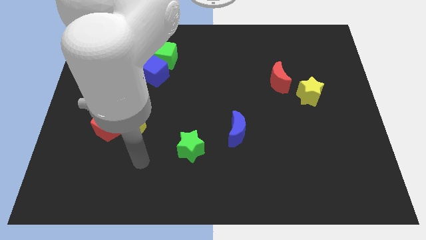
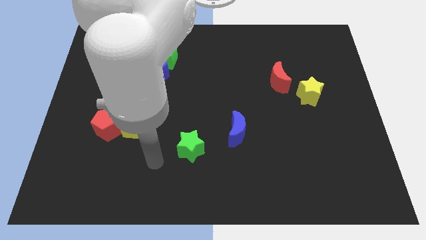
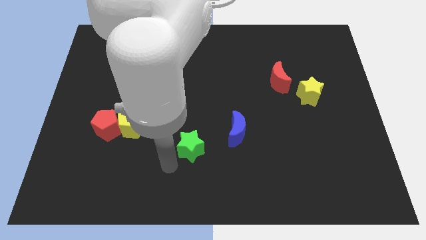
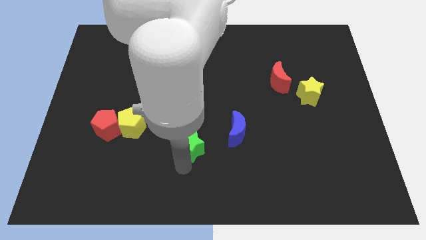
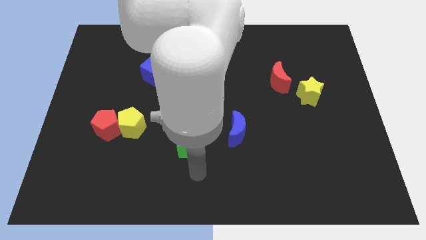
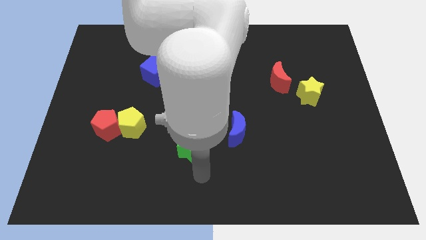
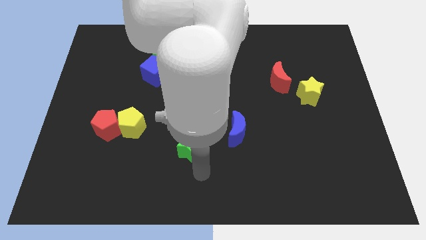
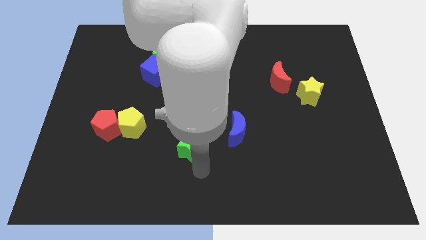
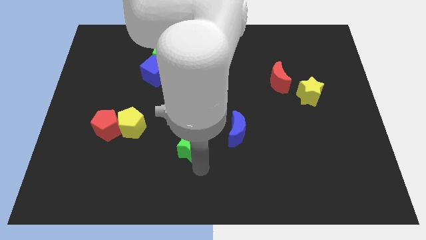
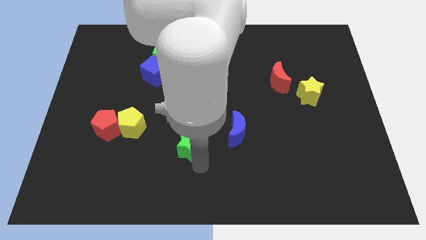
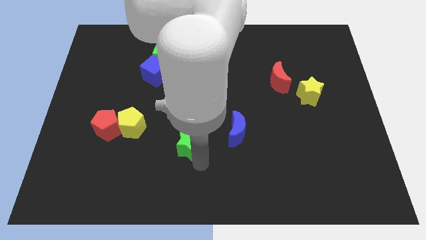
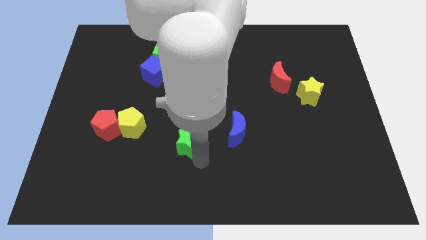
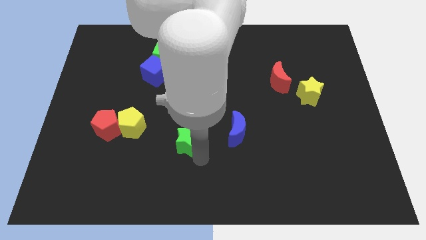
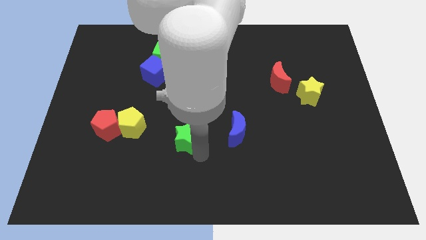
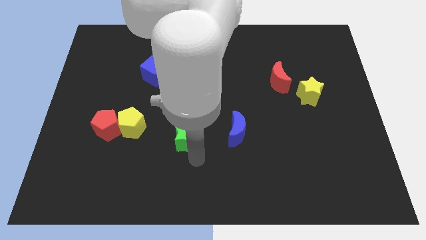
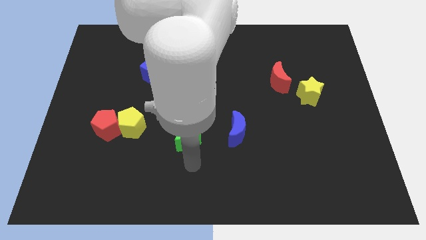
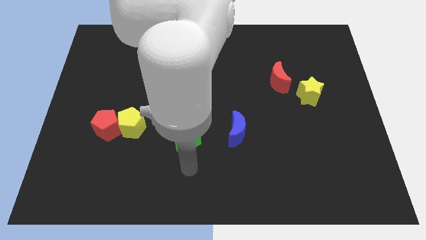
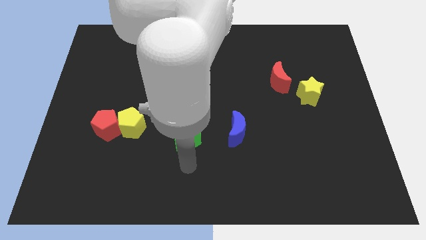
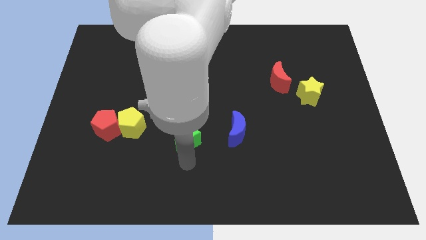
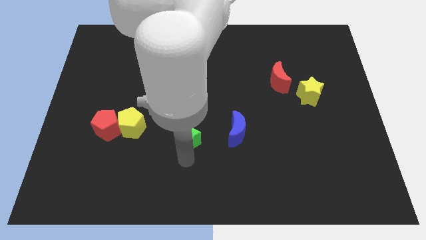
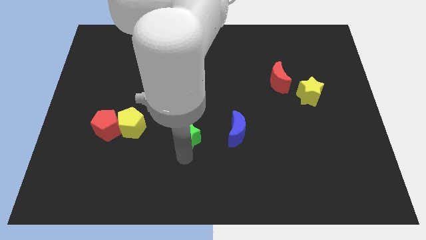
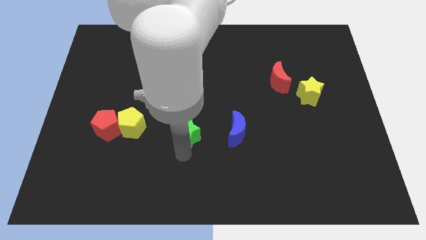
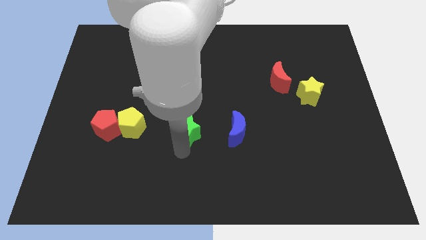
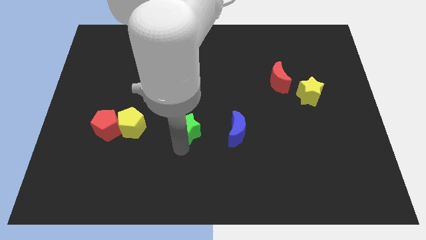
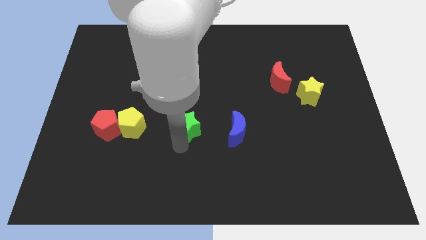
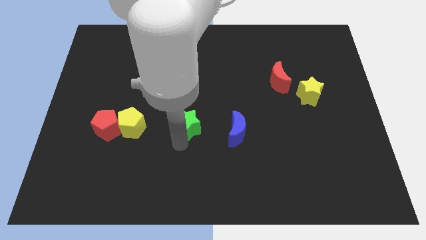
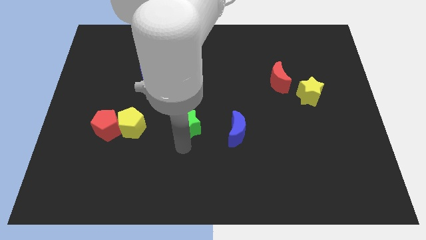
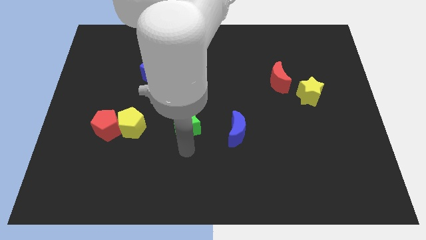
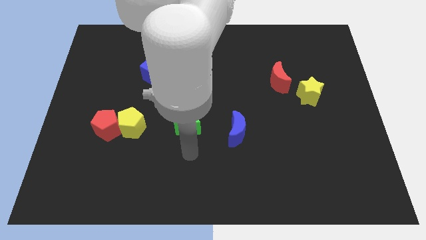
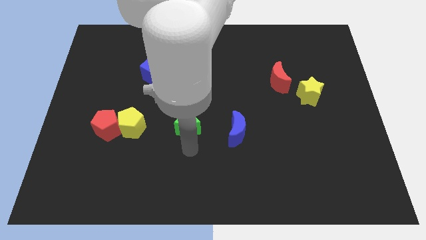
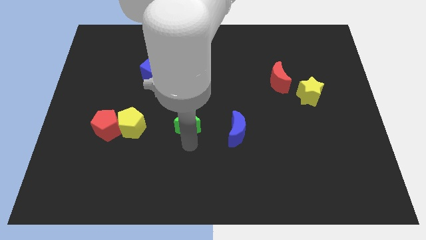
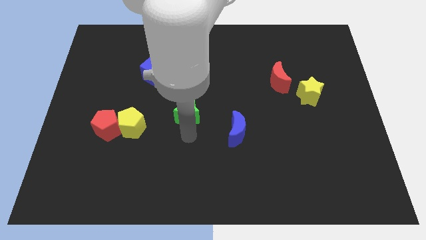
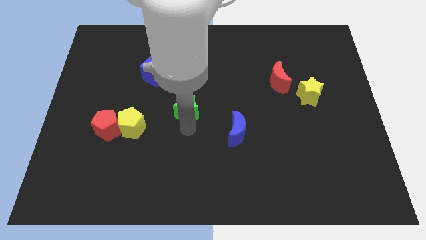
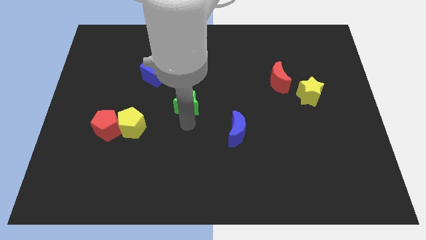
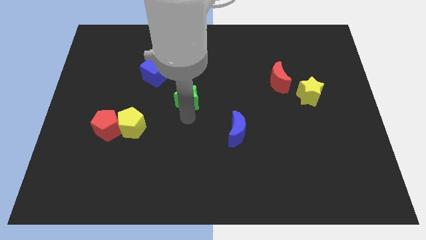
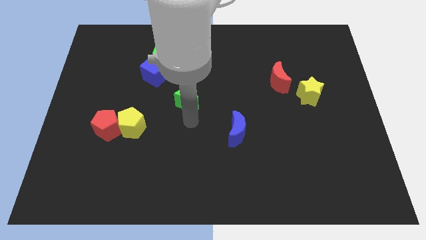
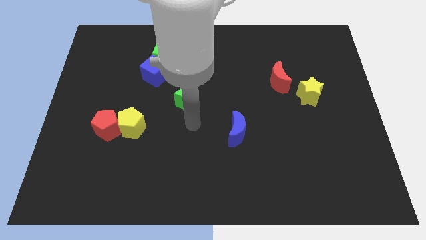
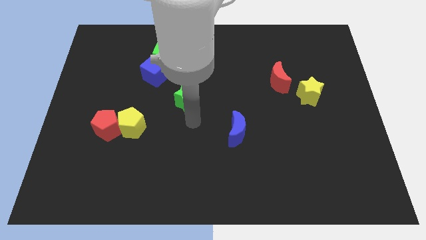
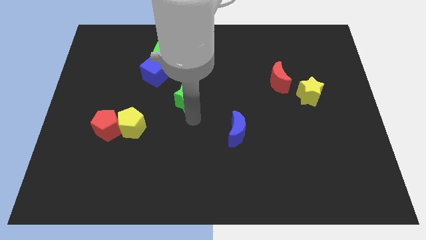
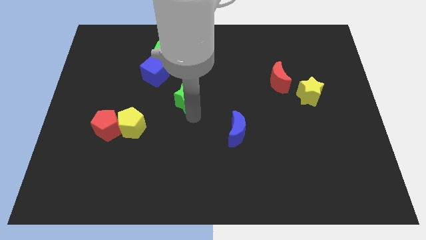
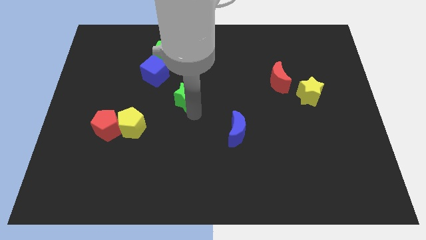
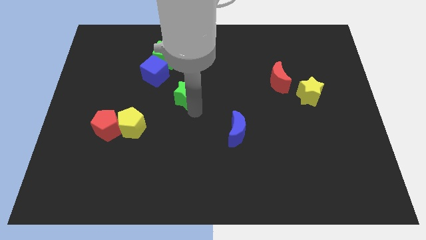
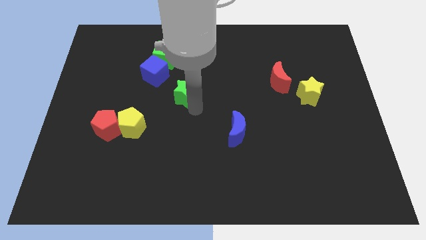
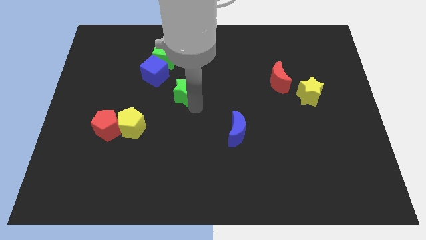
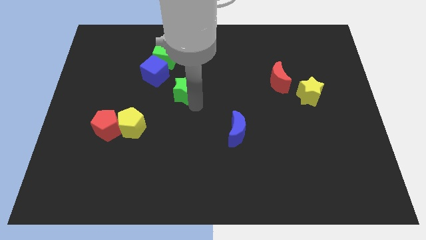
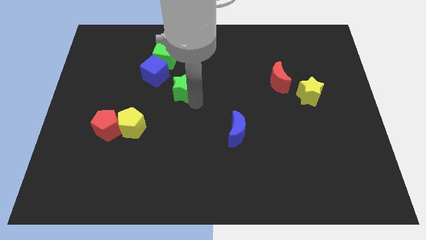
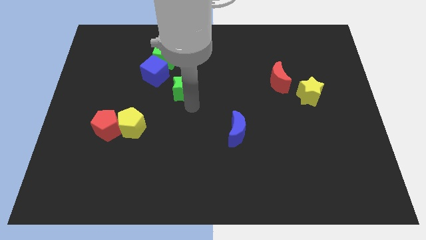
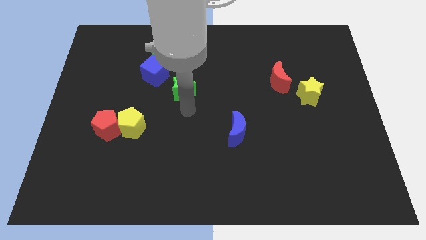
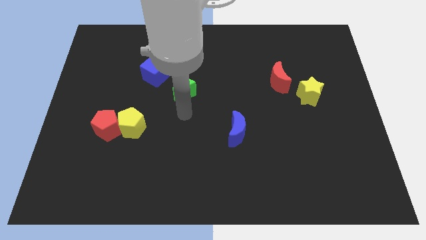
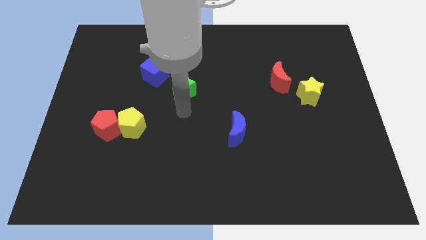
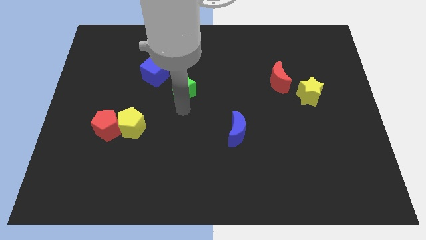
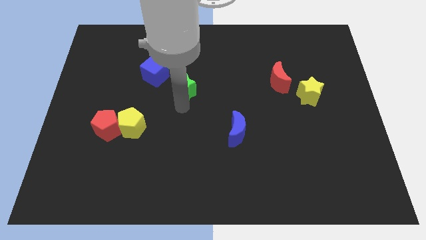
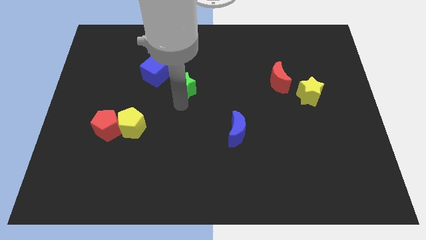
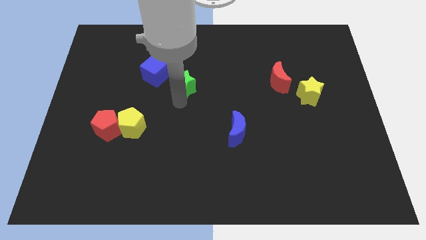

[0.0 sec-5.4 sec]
push the green star to the bottom right side of the green cube

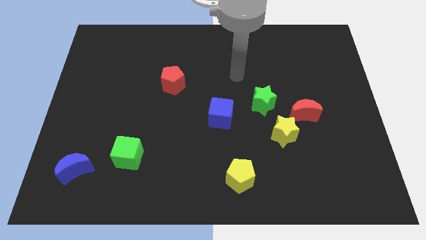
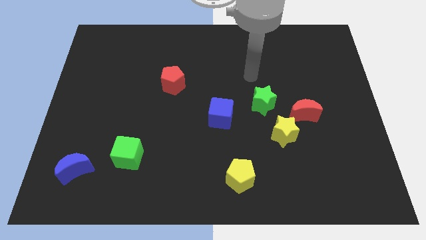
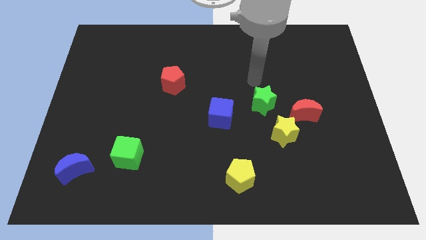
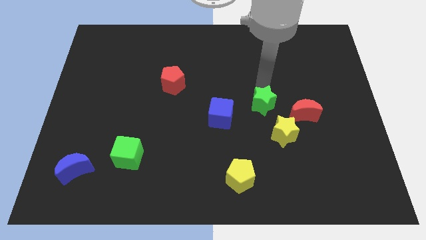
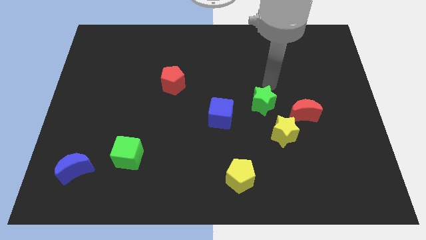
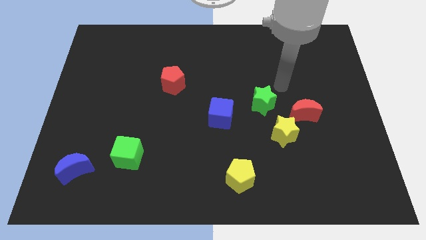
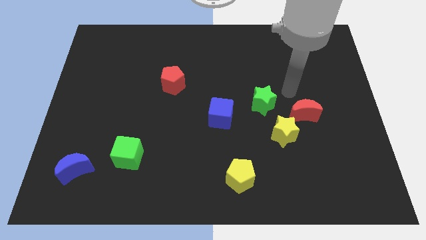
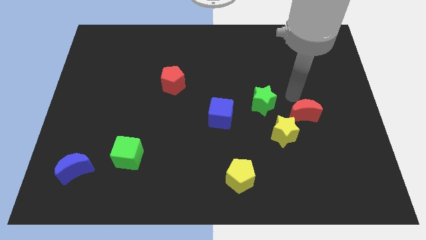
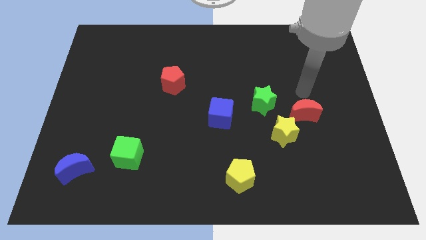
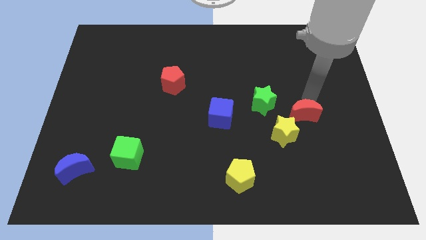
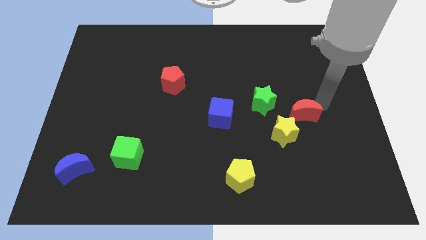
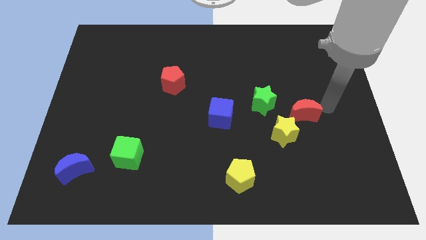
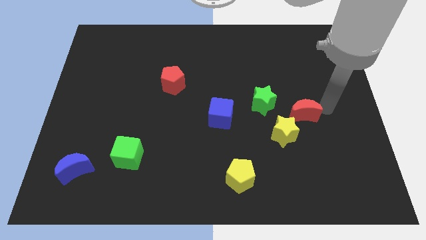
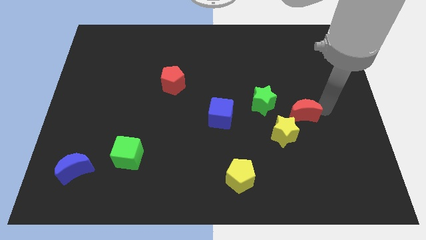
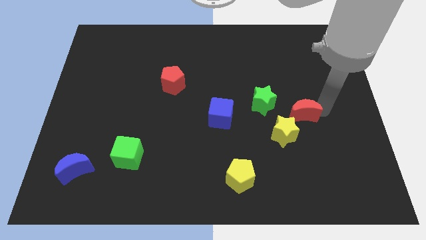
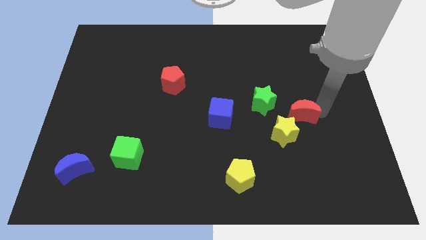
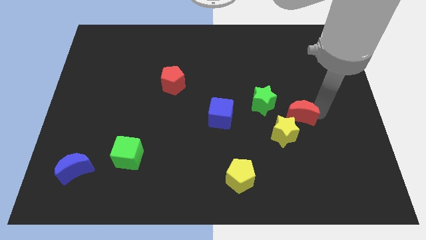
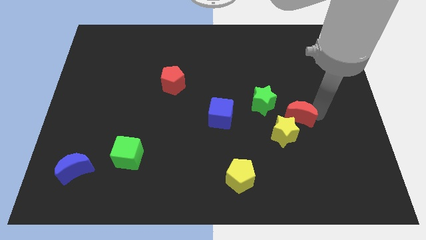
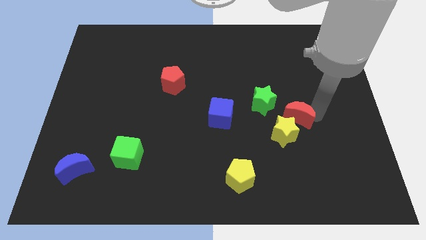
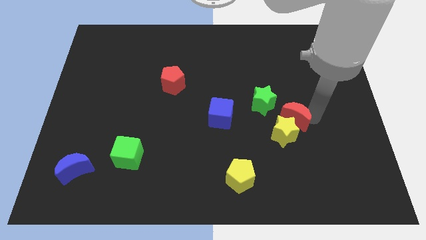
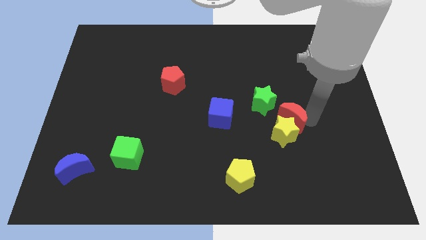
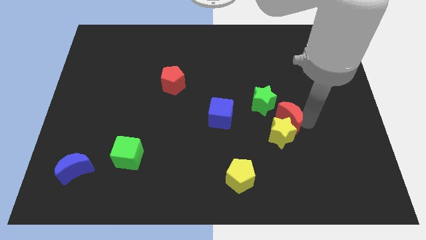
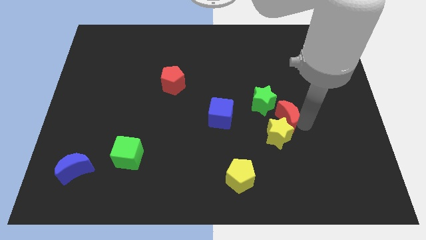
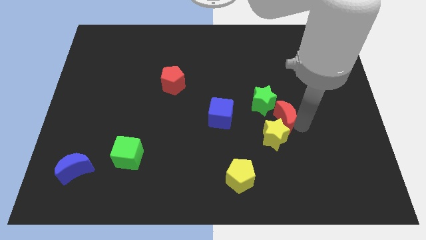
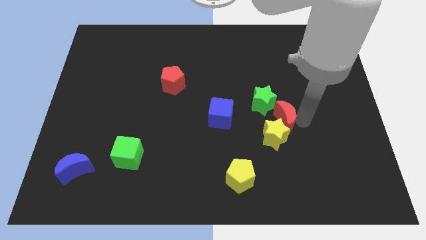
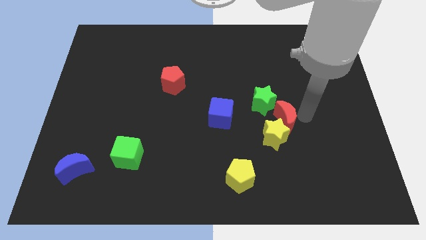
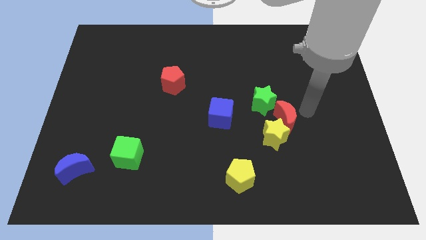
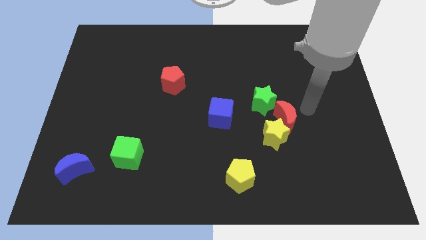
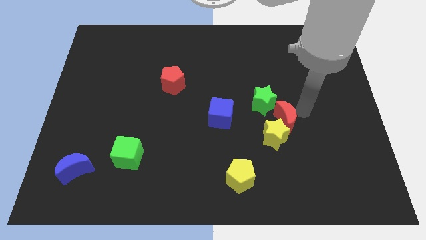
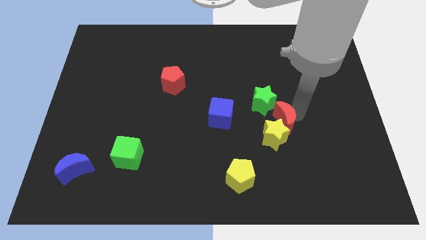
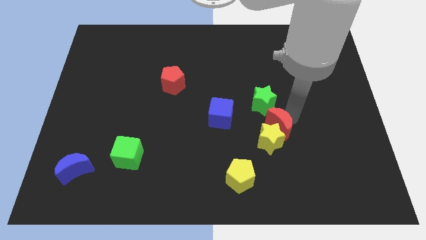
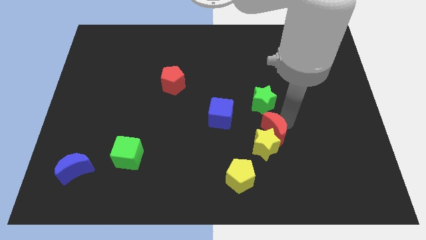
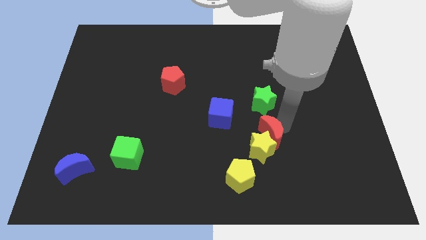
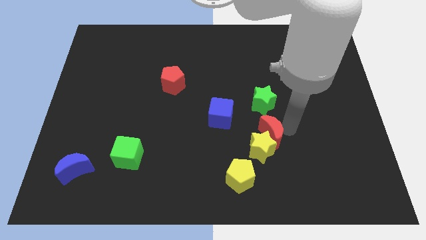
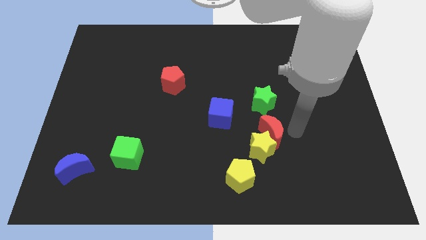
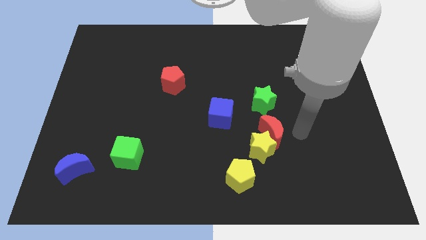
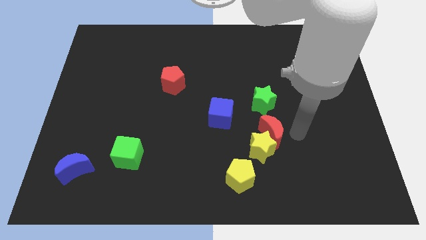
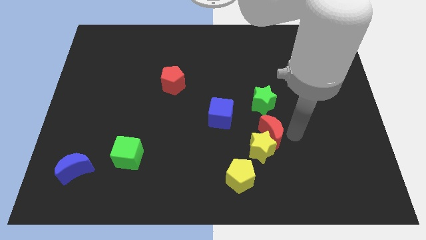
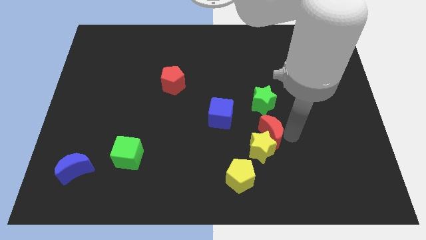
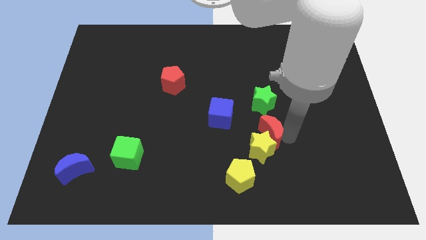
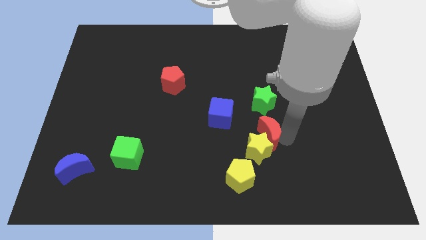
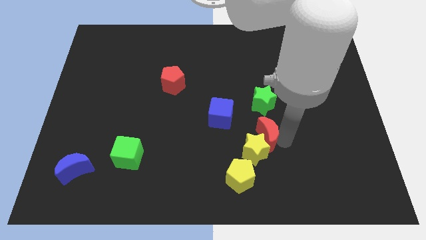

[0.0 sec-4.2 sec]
move the red moon diagonally down and to the right of the blue cube
